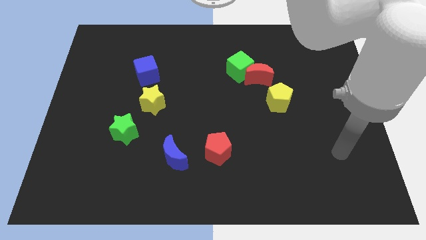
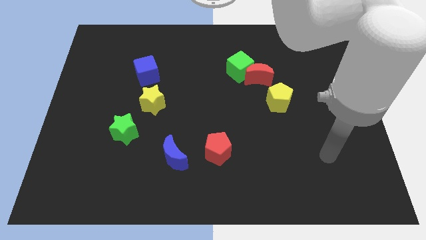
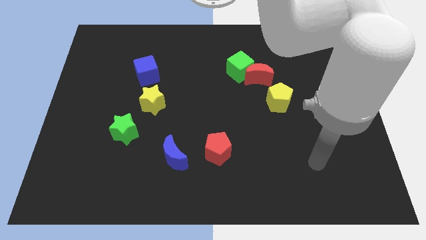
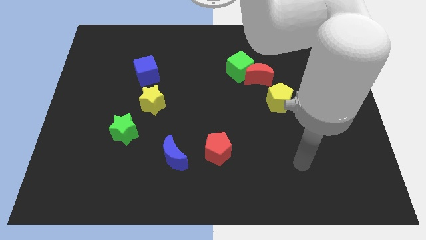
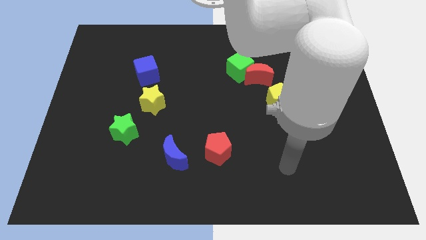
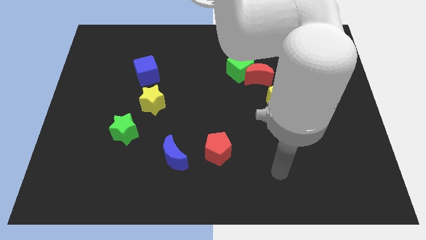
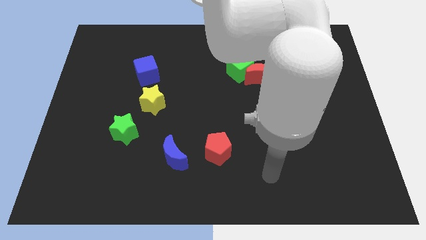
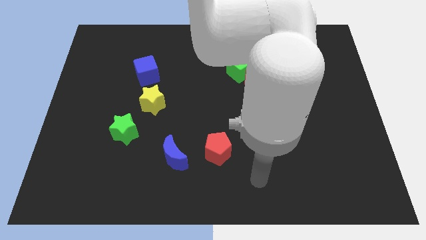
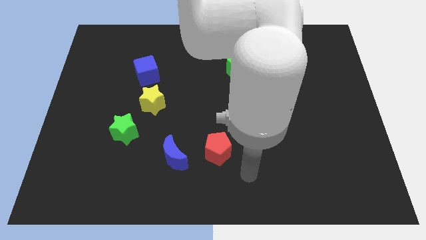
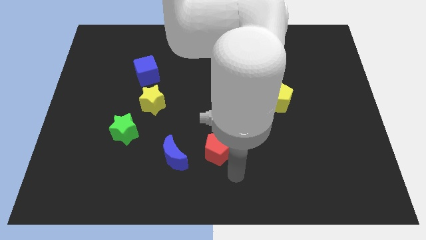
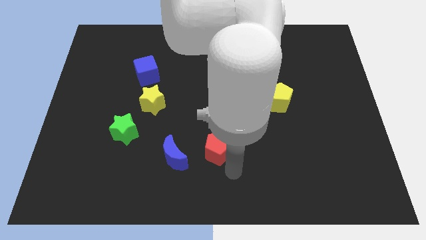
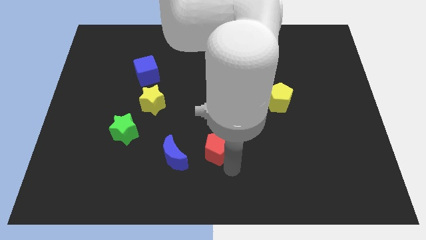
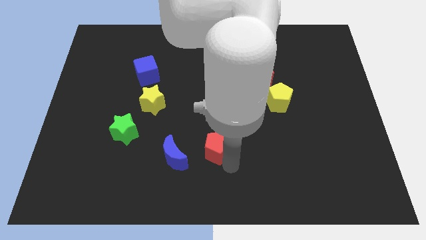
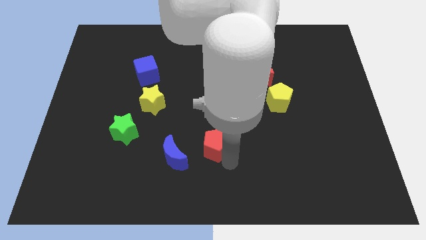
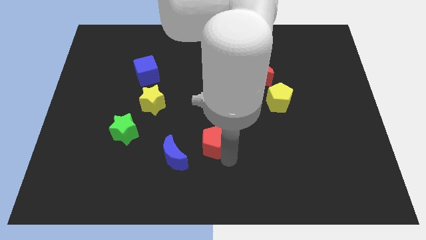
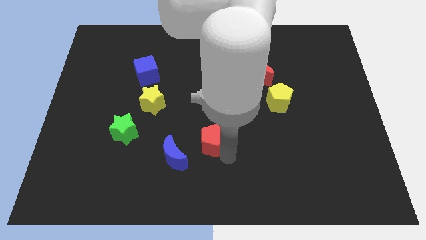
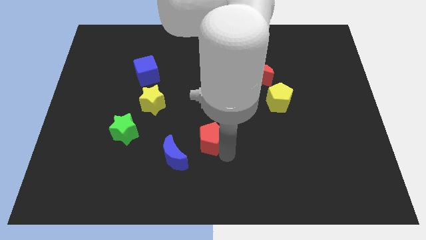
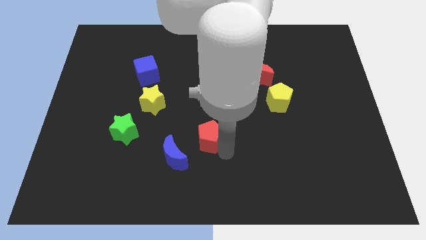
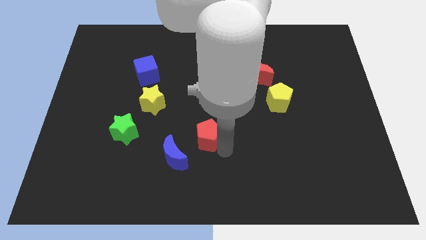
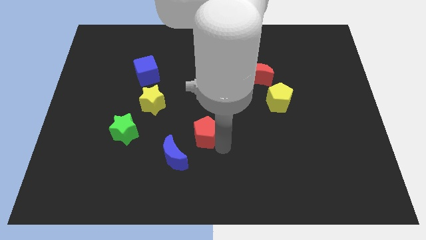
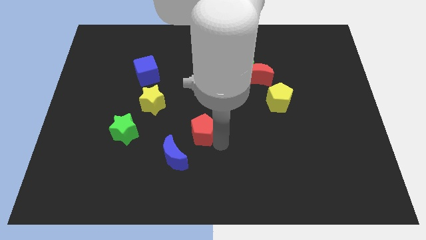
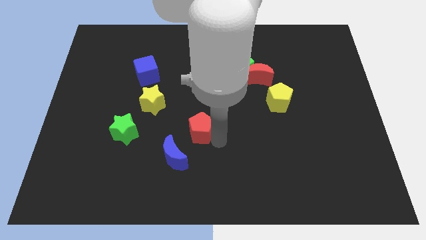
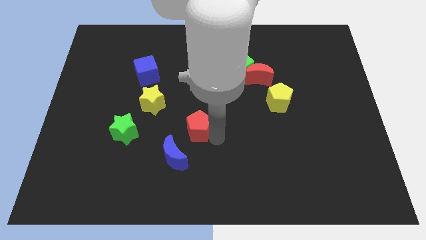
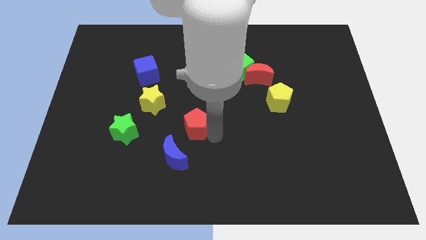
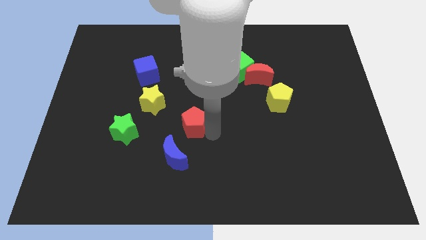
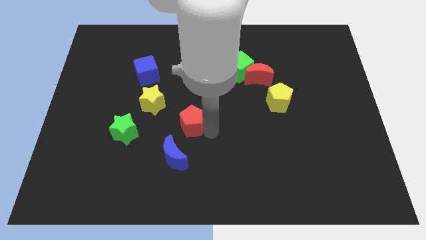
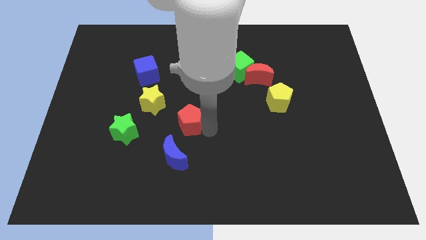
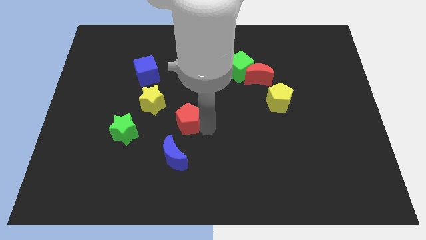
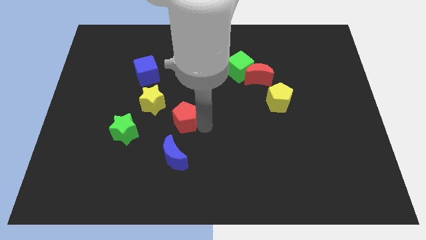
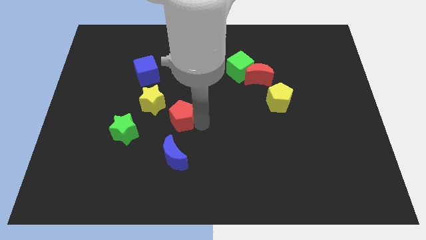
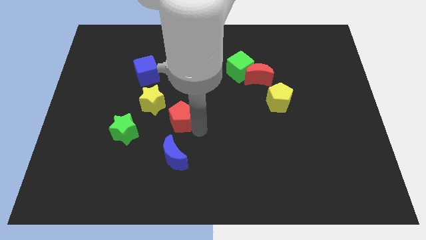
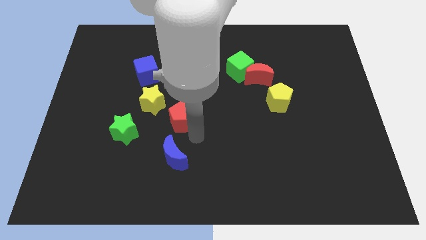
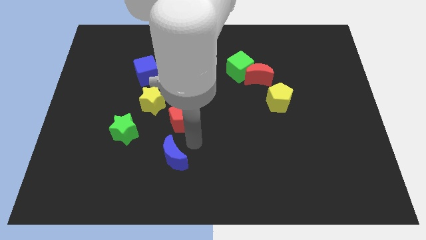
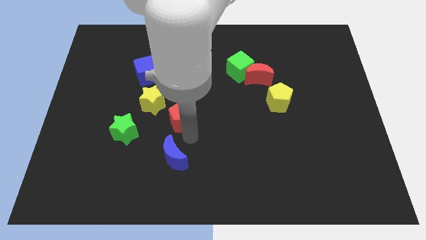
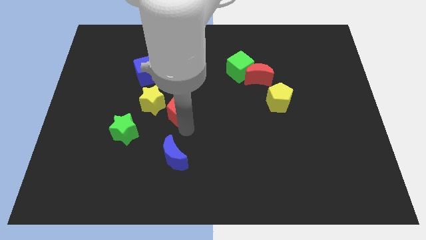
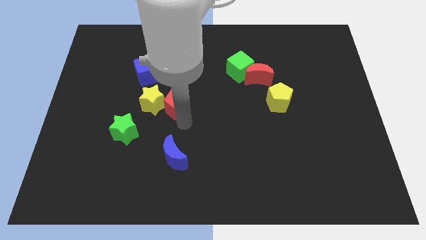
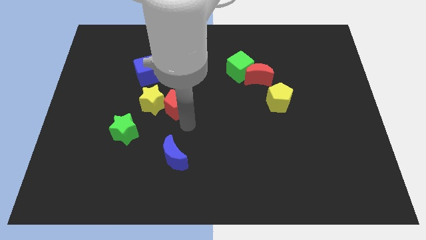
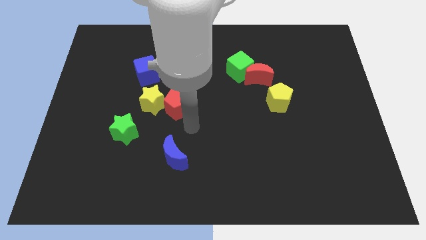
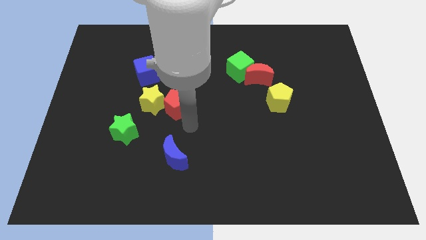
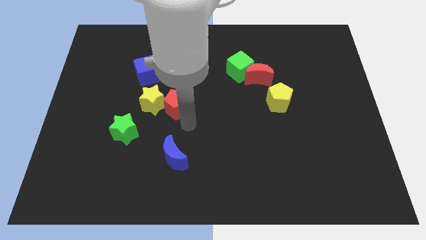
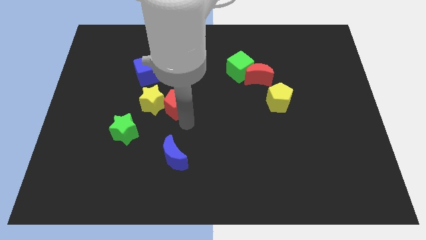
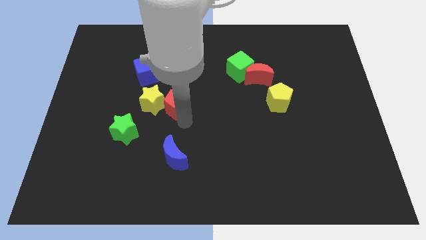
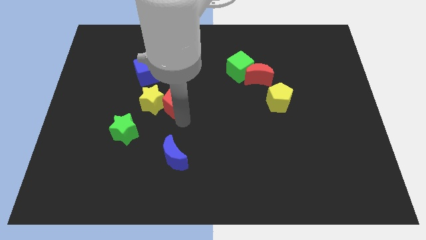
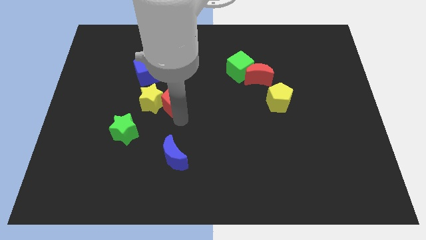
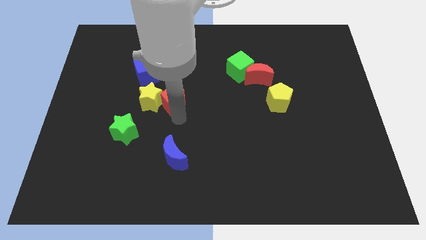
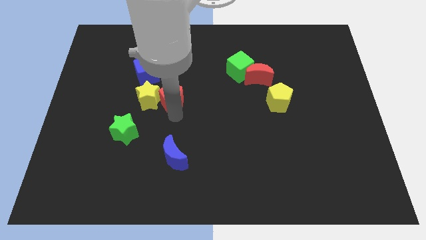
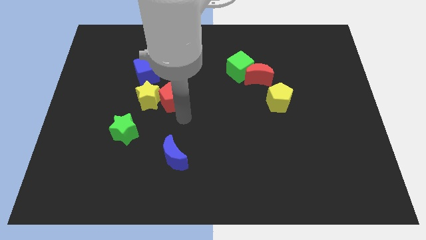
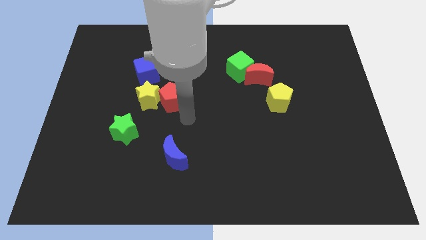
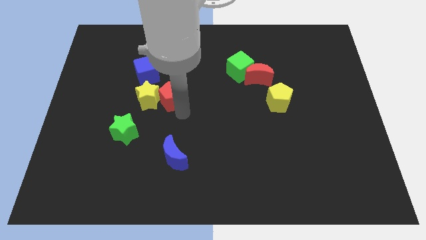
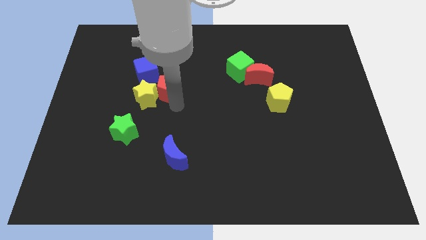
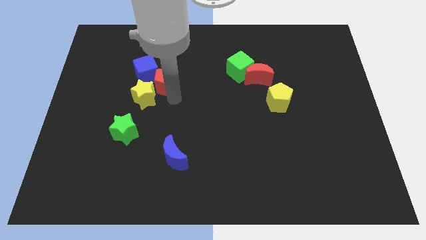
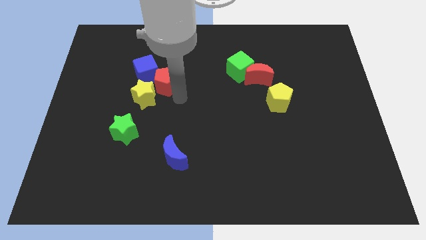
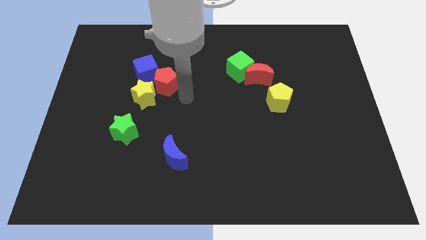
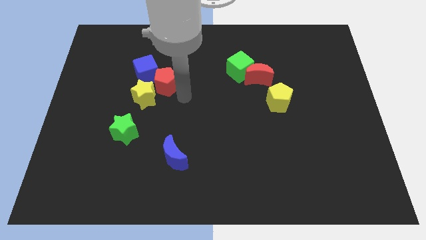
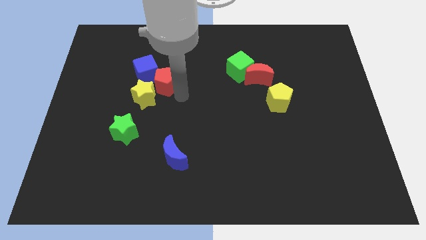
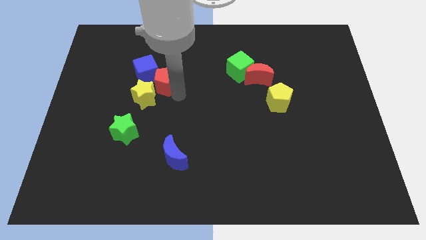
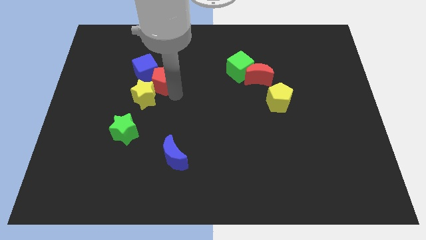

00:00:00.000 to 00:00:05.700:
put the red pentagon towards the blue cube

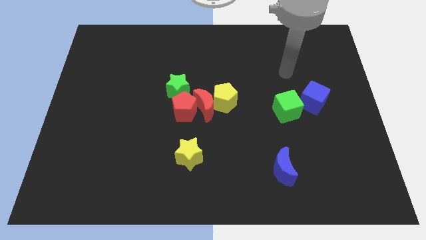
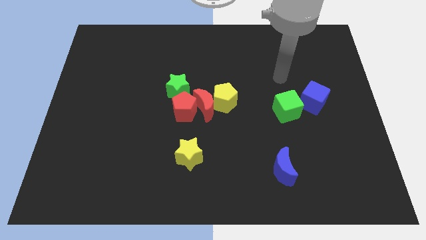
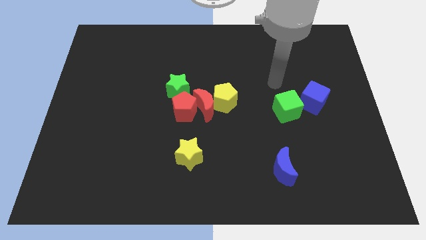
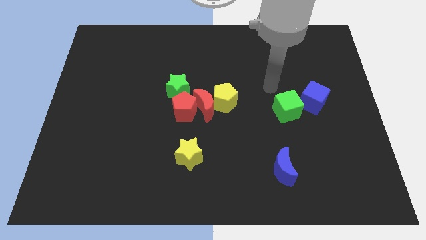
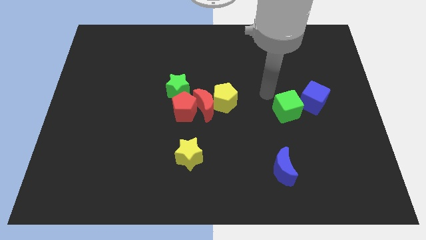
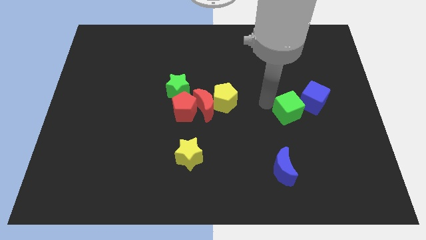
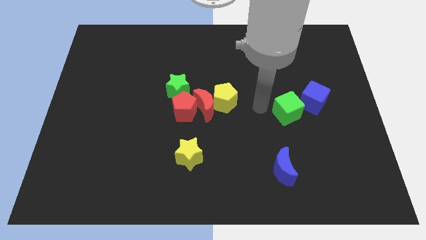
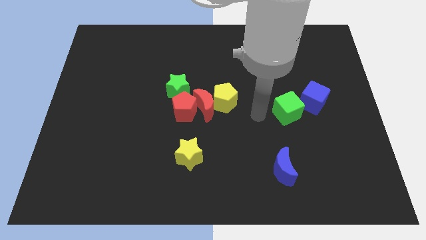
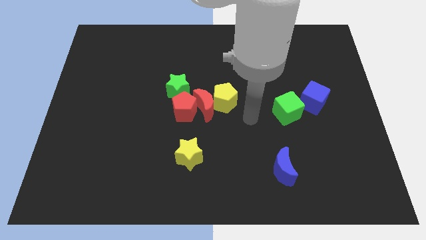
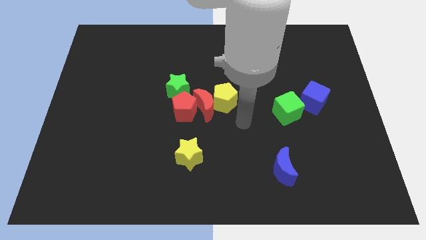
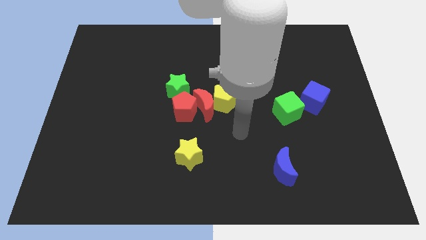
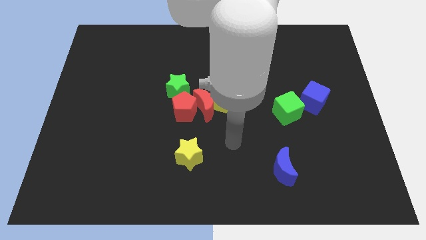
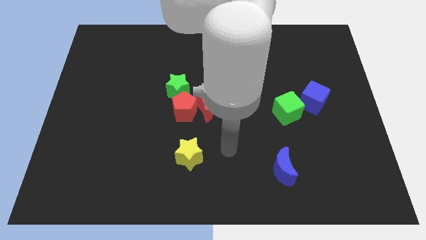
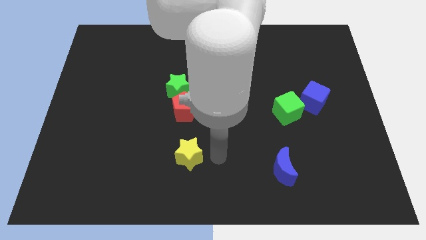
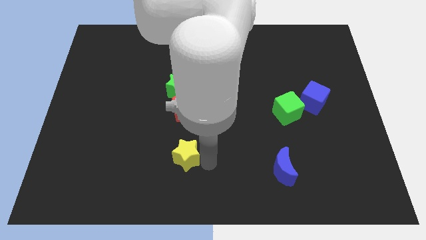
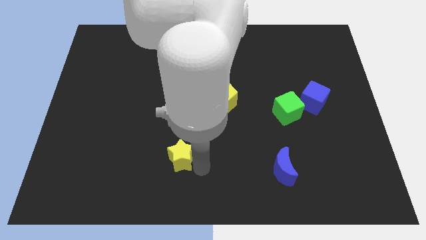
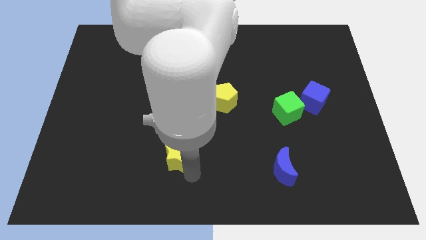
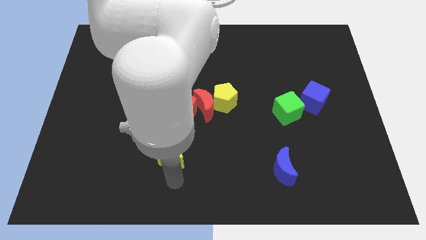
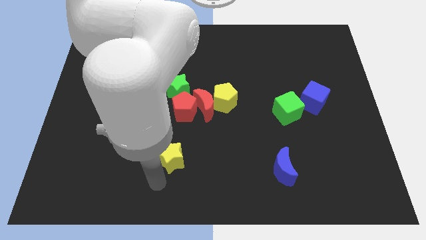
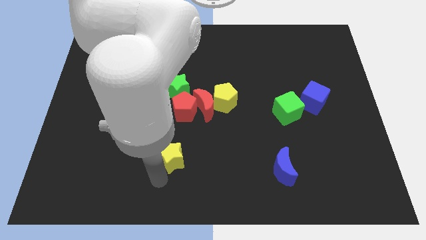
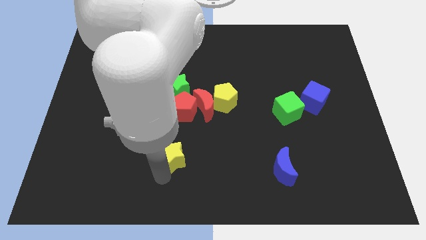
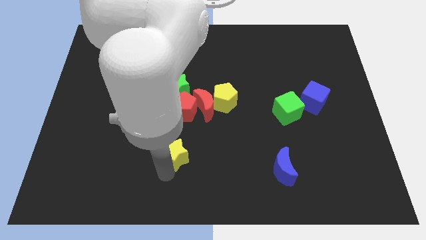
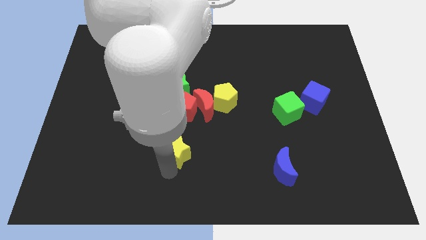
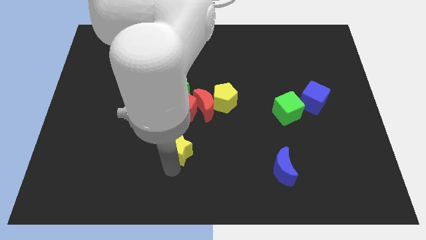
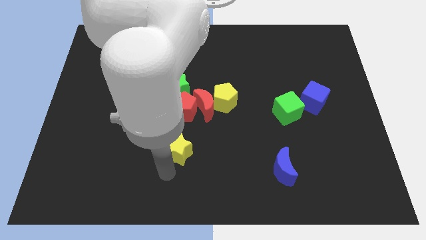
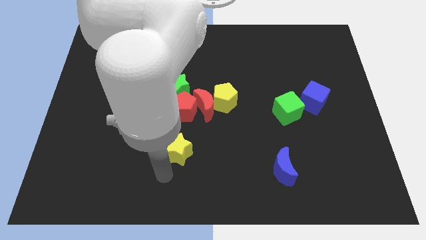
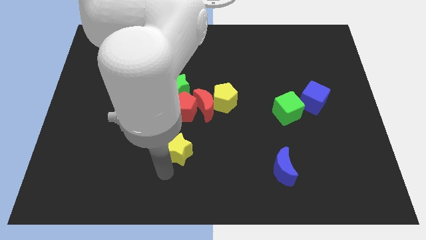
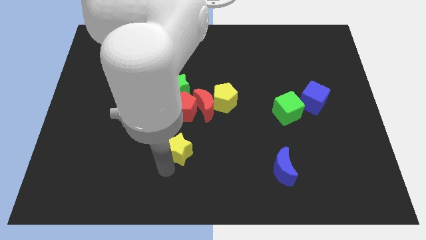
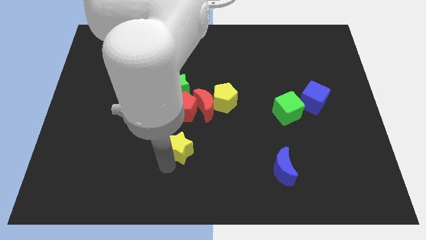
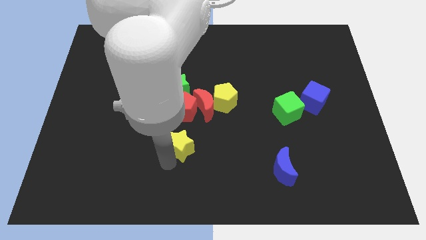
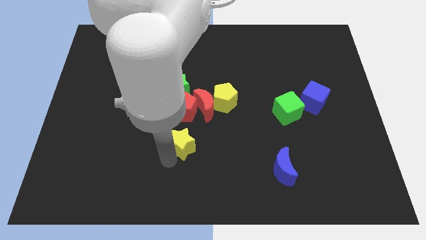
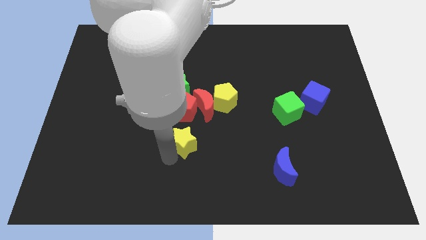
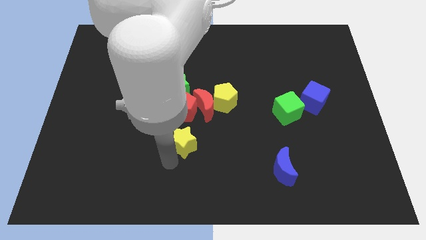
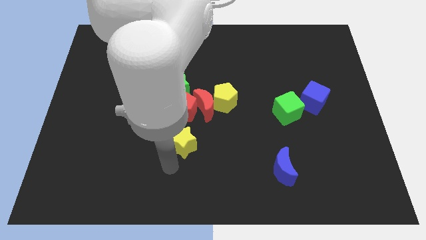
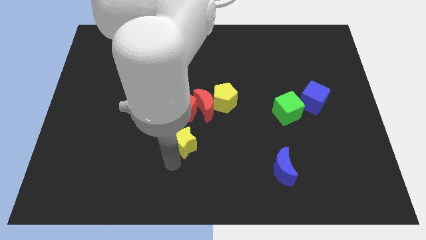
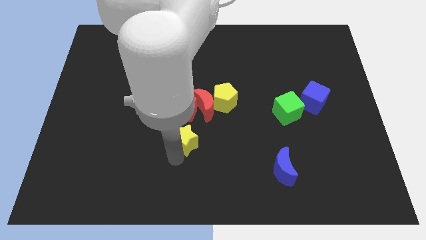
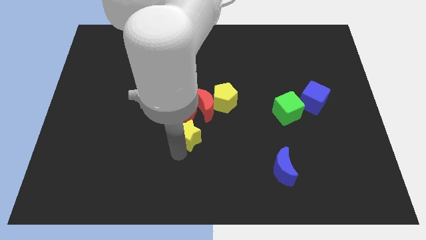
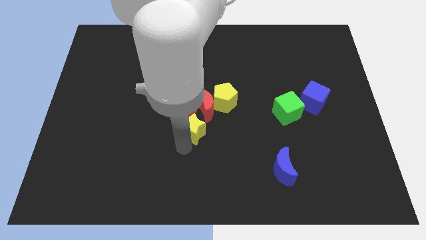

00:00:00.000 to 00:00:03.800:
put the yellow star to the red pentagon
